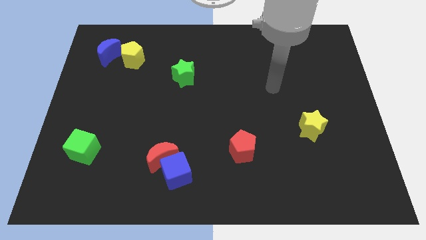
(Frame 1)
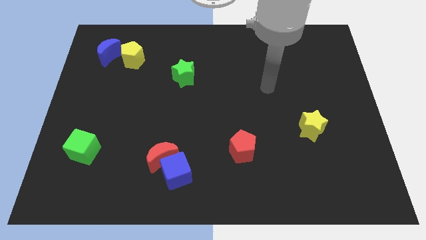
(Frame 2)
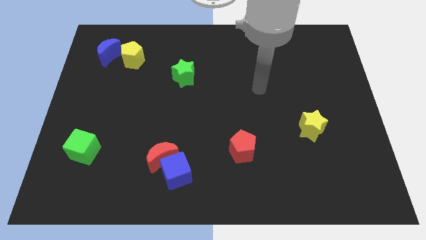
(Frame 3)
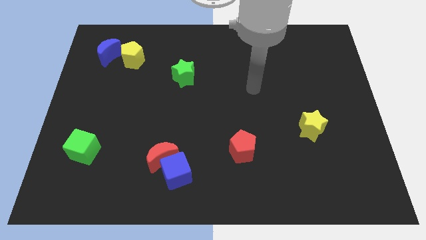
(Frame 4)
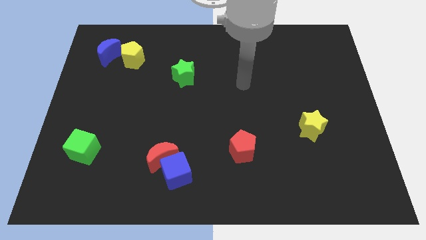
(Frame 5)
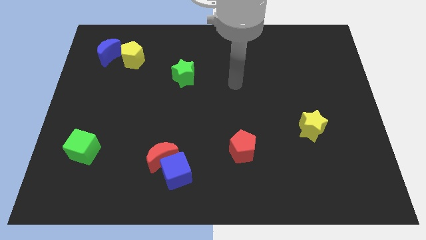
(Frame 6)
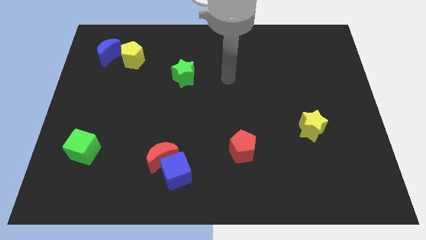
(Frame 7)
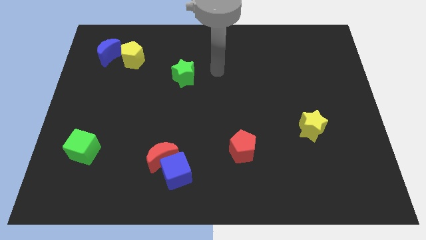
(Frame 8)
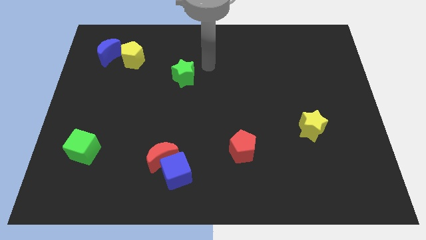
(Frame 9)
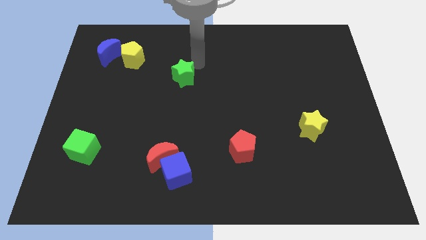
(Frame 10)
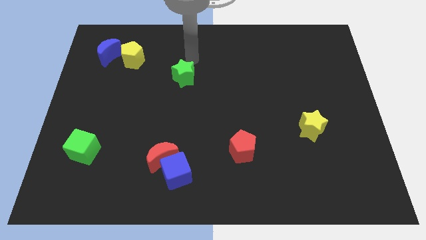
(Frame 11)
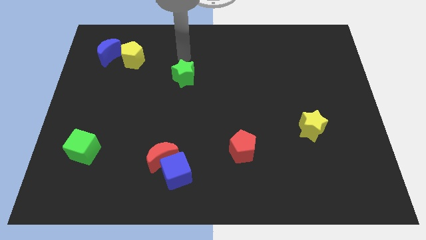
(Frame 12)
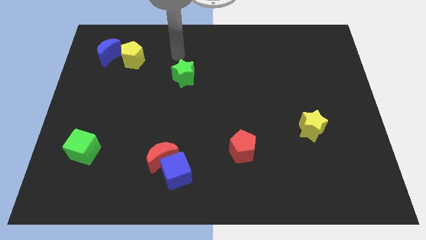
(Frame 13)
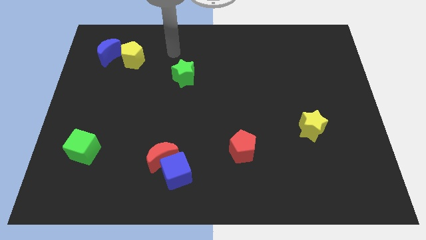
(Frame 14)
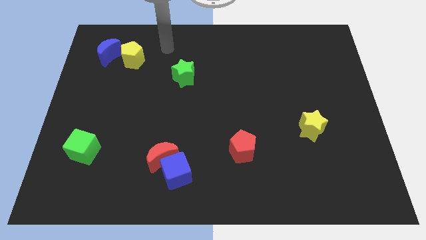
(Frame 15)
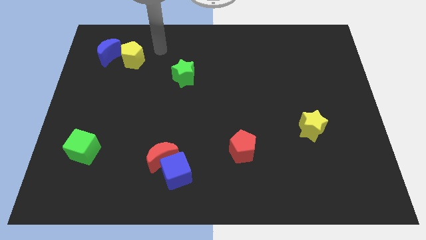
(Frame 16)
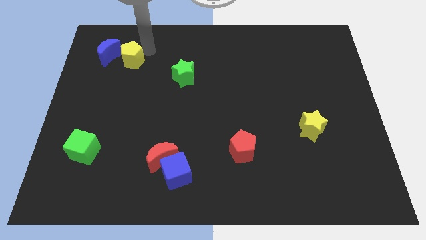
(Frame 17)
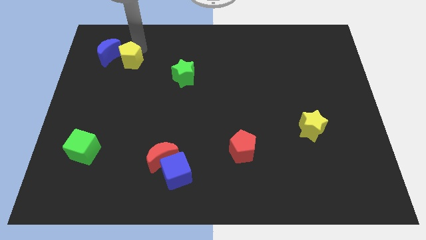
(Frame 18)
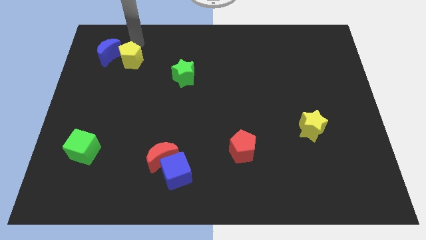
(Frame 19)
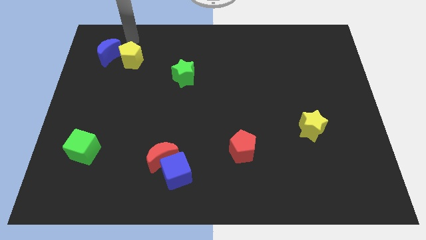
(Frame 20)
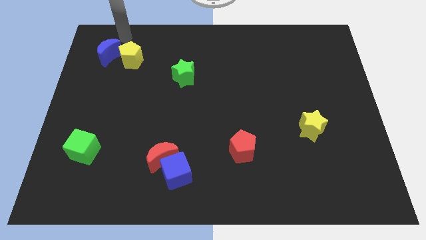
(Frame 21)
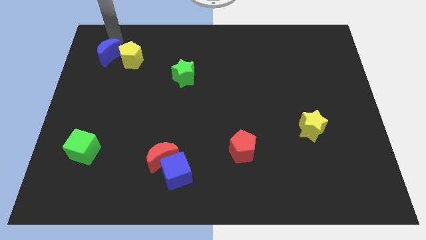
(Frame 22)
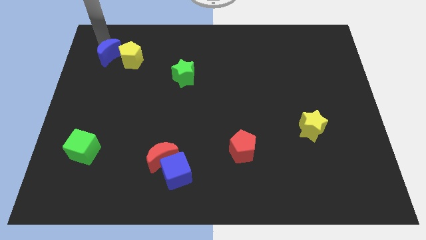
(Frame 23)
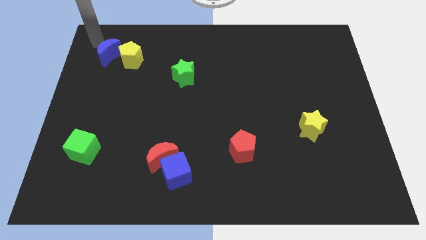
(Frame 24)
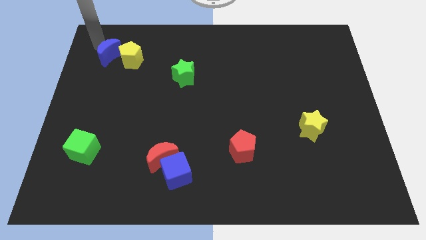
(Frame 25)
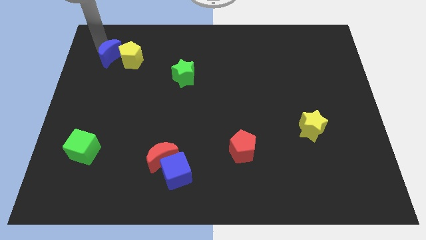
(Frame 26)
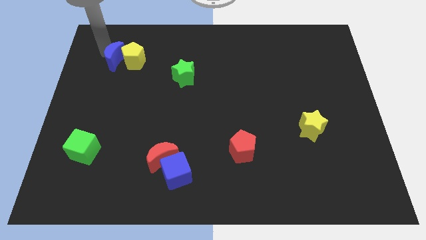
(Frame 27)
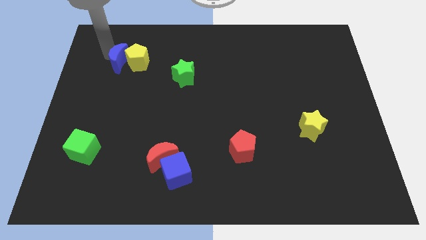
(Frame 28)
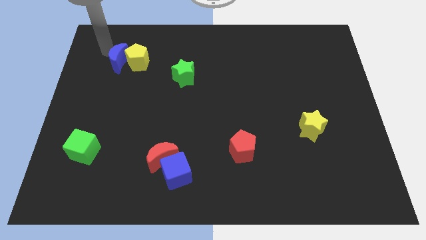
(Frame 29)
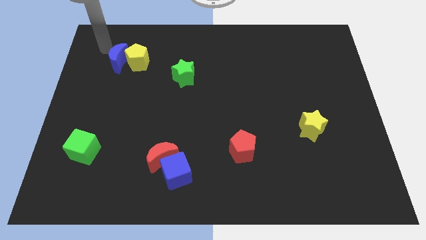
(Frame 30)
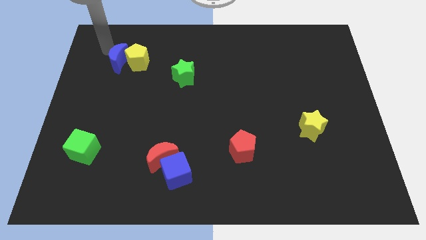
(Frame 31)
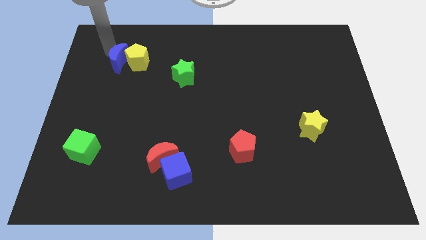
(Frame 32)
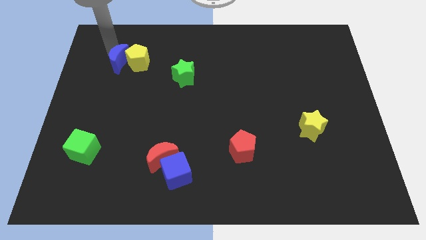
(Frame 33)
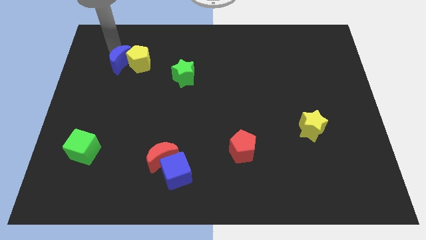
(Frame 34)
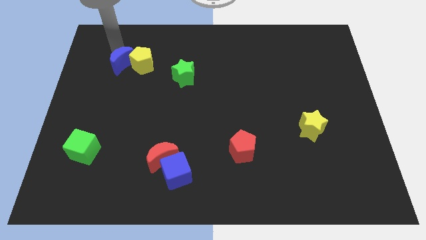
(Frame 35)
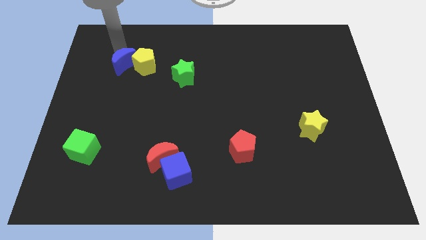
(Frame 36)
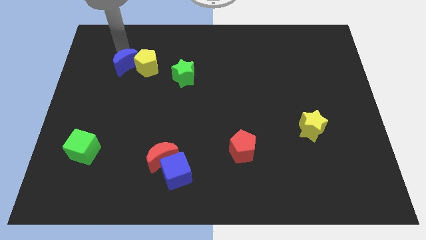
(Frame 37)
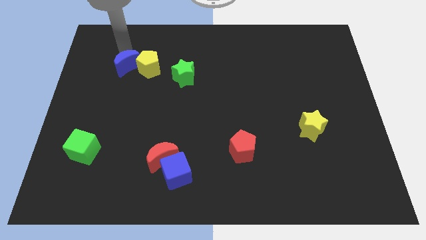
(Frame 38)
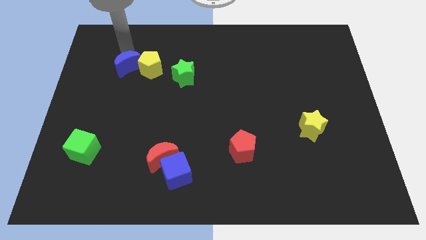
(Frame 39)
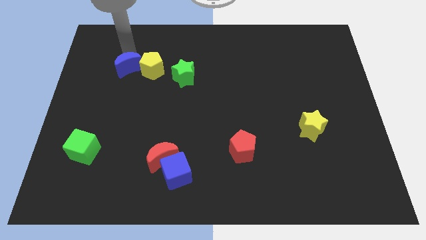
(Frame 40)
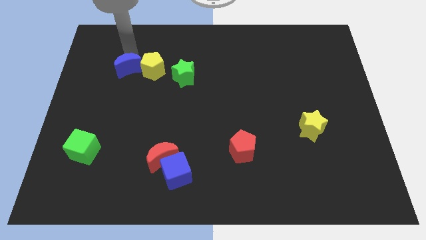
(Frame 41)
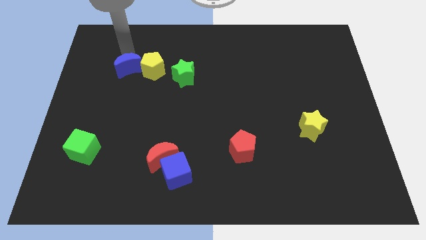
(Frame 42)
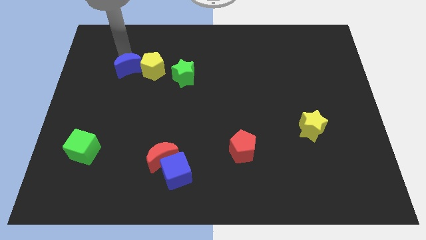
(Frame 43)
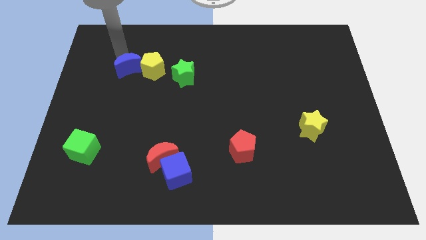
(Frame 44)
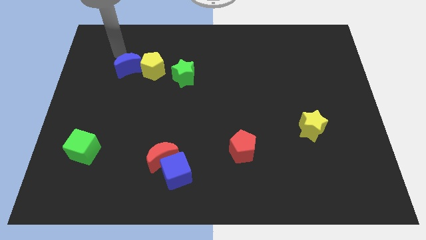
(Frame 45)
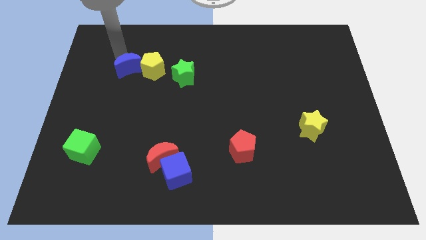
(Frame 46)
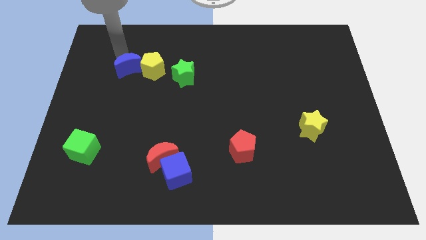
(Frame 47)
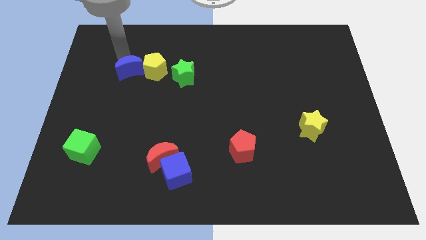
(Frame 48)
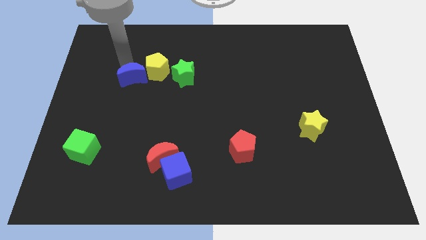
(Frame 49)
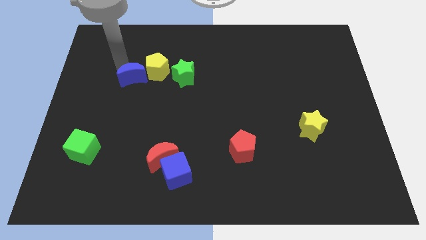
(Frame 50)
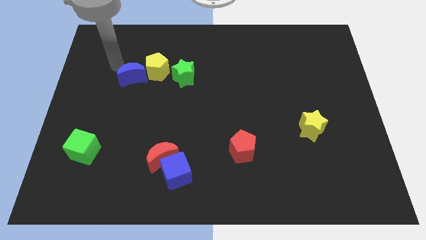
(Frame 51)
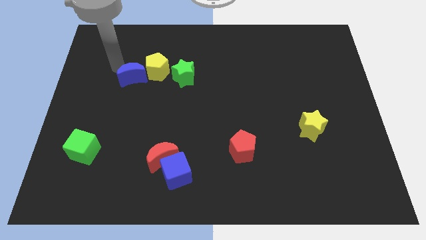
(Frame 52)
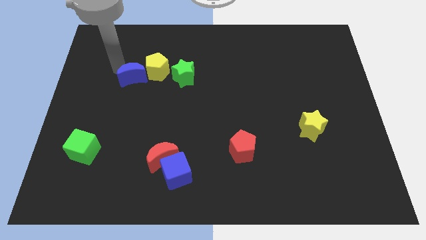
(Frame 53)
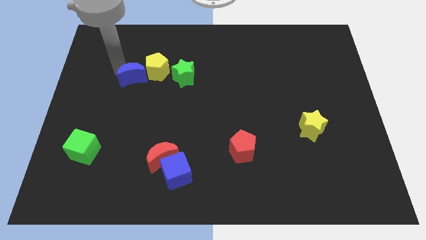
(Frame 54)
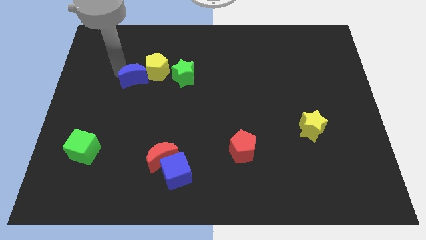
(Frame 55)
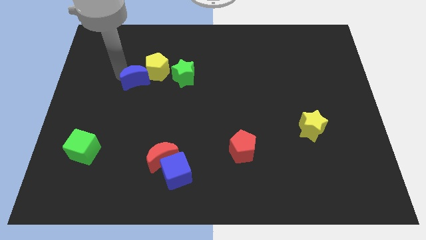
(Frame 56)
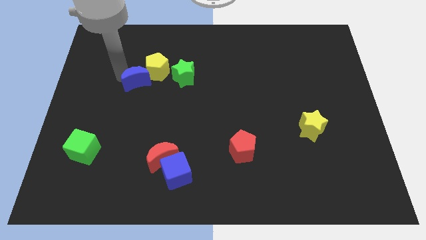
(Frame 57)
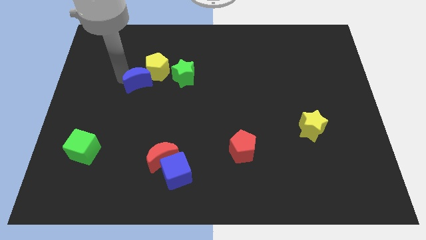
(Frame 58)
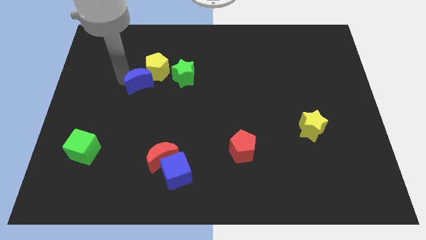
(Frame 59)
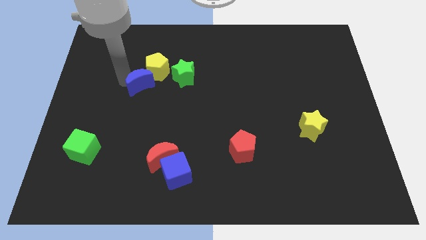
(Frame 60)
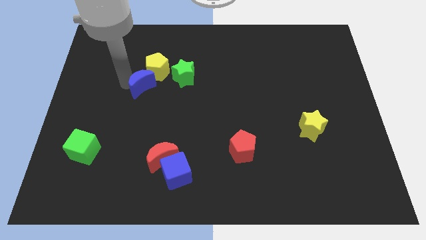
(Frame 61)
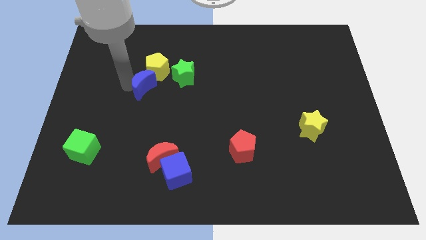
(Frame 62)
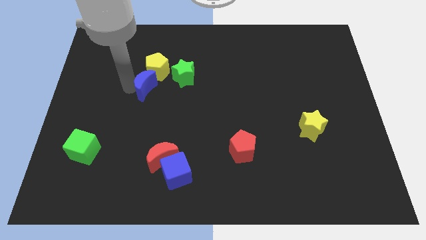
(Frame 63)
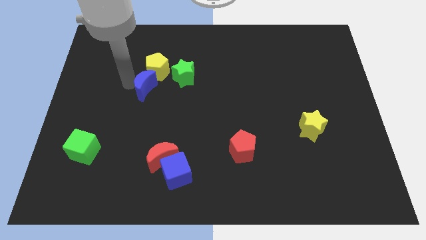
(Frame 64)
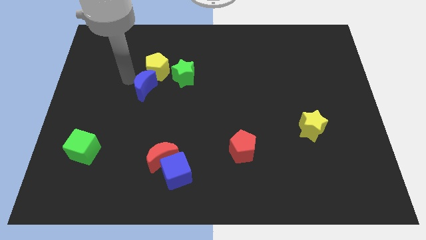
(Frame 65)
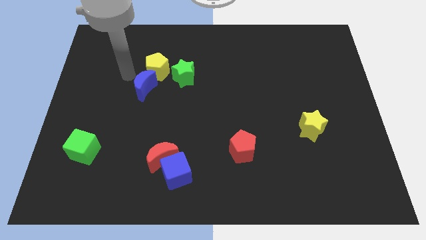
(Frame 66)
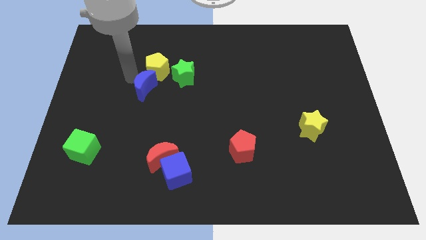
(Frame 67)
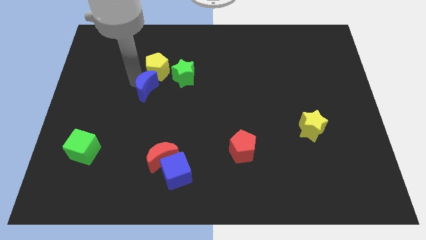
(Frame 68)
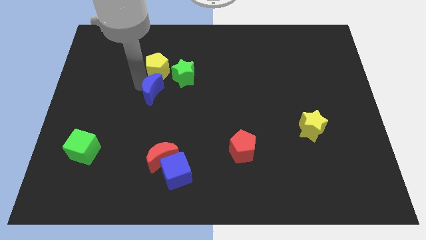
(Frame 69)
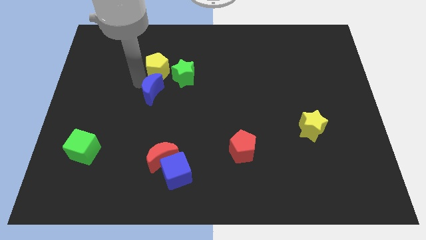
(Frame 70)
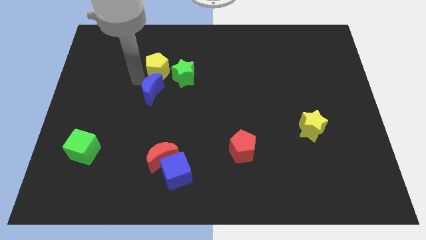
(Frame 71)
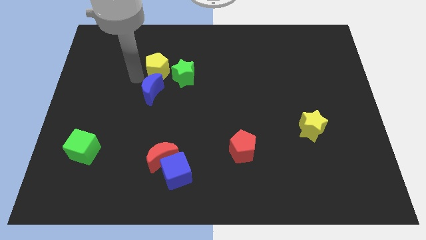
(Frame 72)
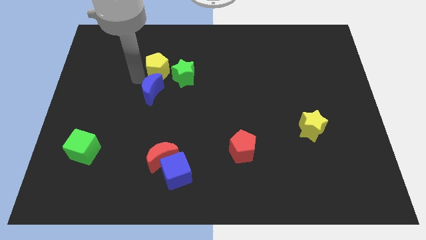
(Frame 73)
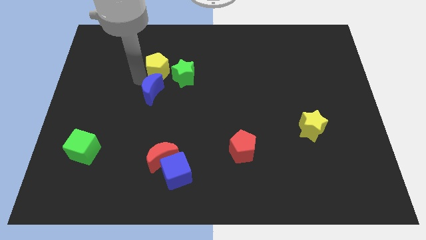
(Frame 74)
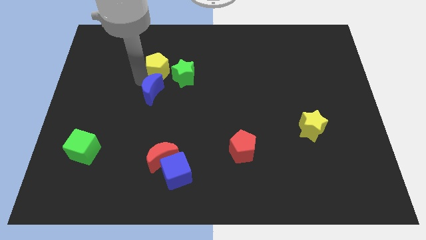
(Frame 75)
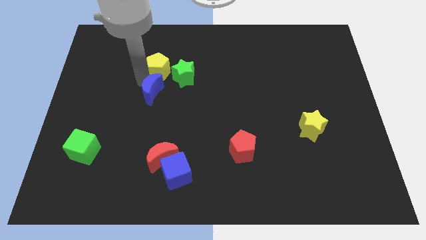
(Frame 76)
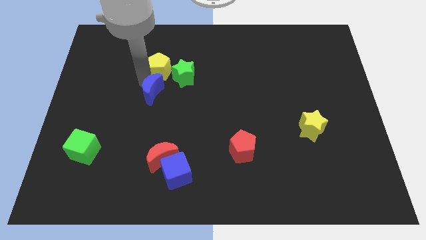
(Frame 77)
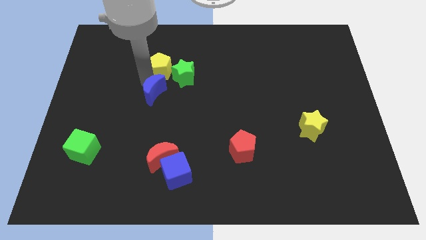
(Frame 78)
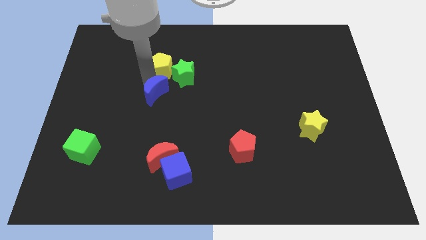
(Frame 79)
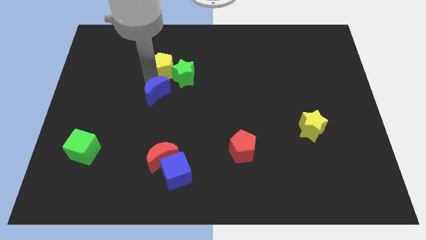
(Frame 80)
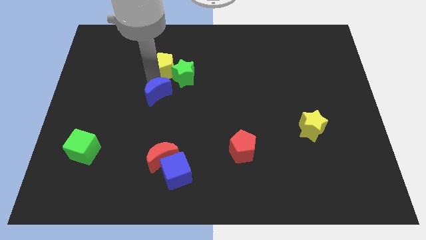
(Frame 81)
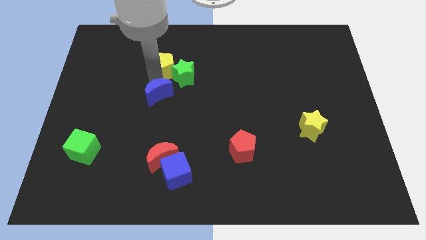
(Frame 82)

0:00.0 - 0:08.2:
slide the blue moon downwards and to the right

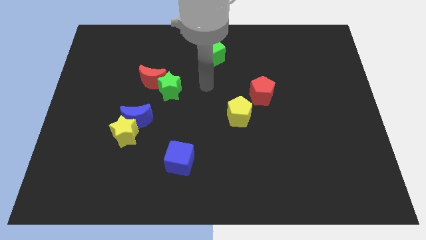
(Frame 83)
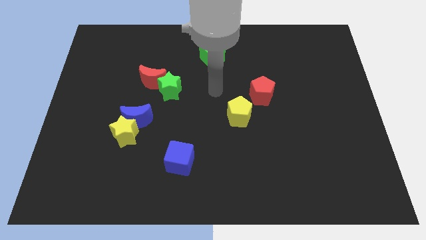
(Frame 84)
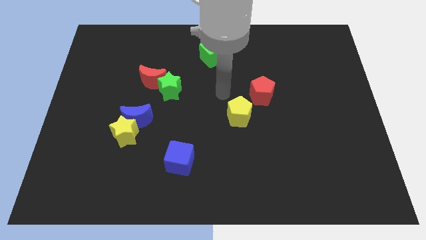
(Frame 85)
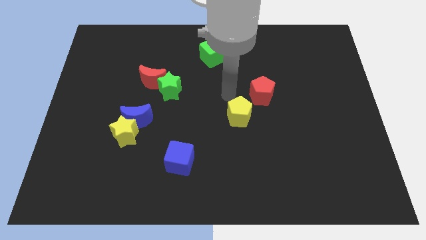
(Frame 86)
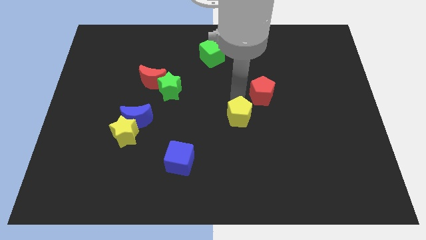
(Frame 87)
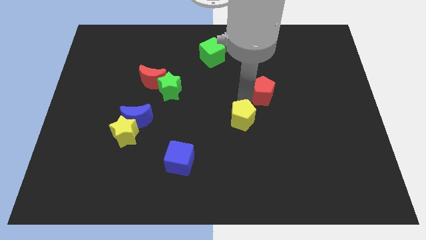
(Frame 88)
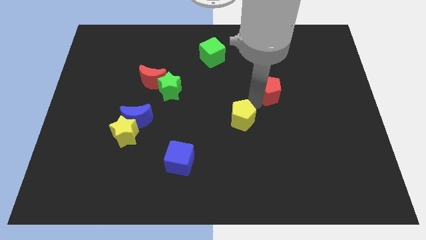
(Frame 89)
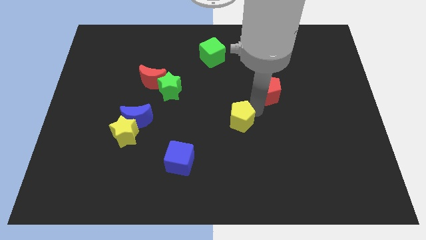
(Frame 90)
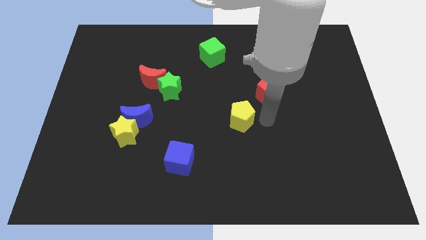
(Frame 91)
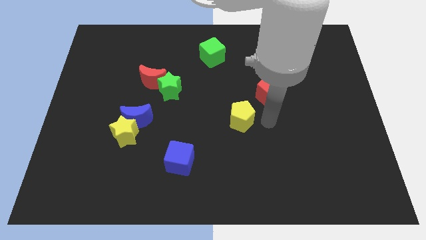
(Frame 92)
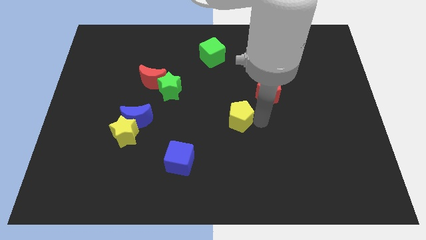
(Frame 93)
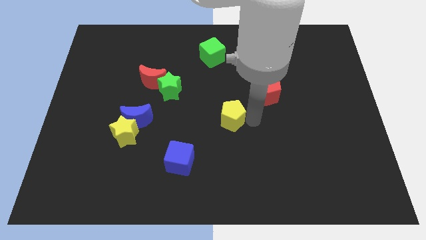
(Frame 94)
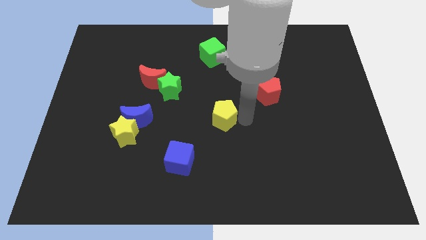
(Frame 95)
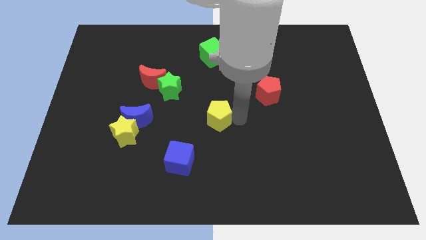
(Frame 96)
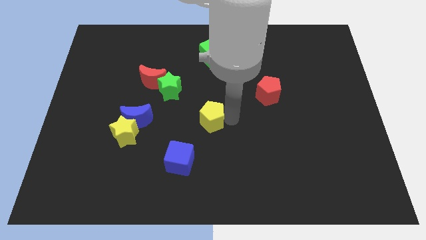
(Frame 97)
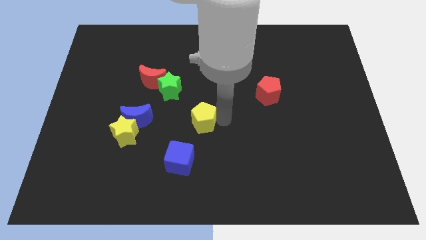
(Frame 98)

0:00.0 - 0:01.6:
move the yellow pentagon a little bit left
